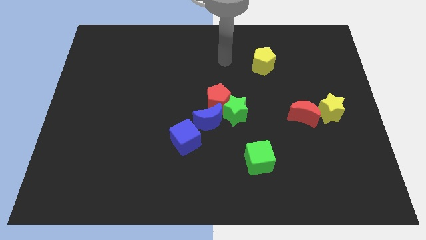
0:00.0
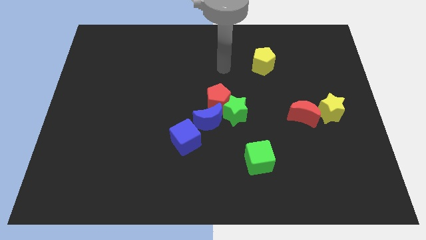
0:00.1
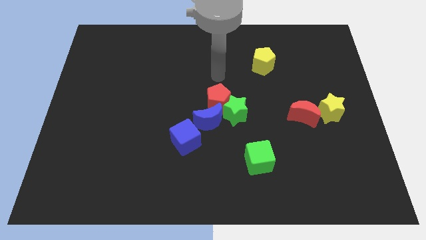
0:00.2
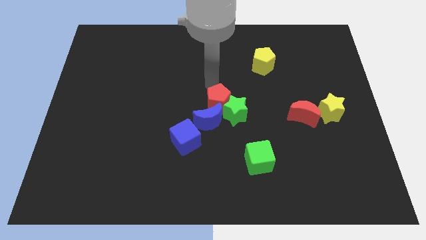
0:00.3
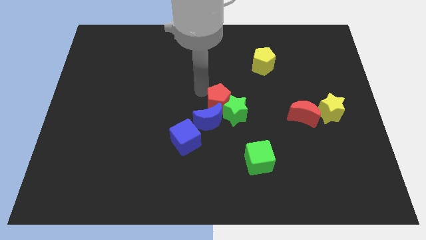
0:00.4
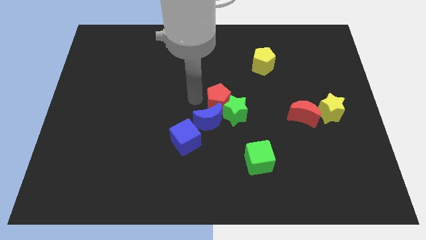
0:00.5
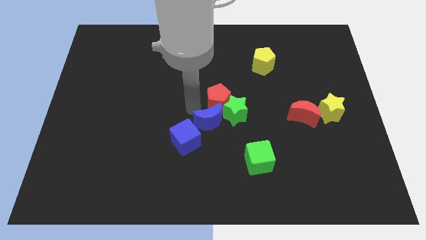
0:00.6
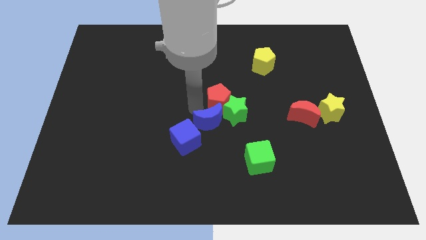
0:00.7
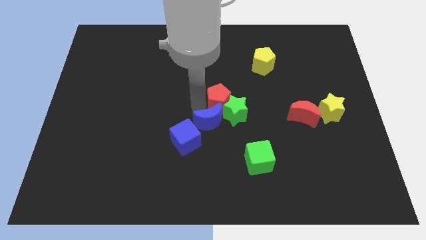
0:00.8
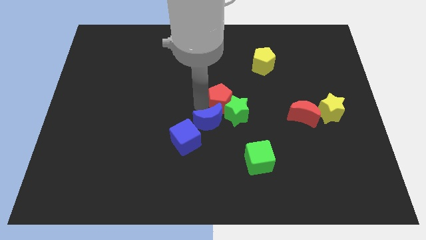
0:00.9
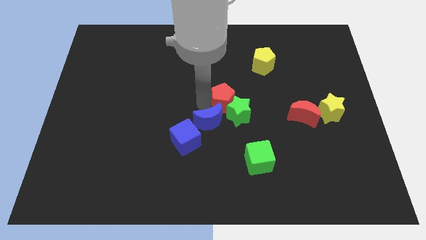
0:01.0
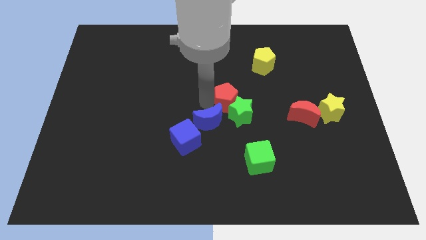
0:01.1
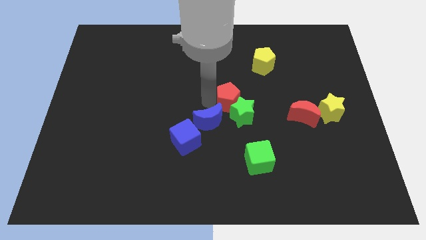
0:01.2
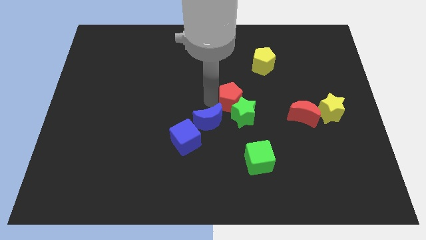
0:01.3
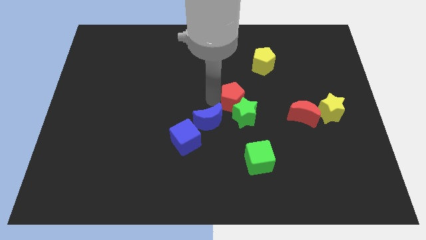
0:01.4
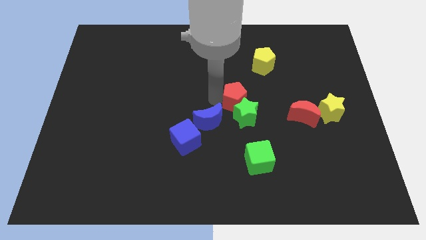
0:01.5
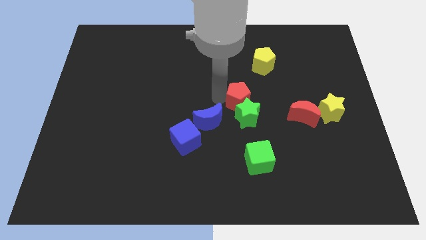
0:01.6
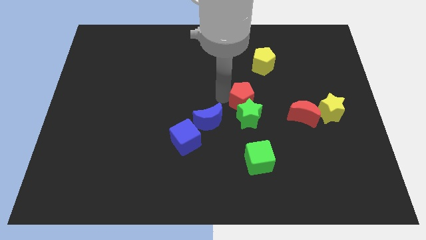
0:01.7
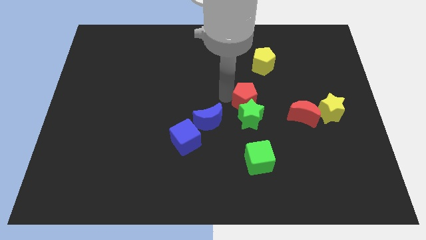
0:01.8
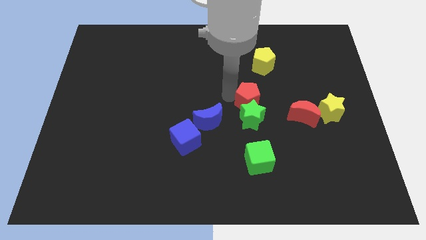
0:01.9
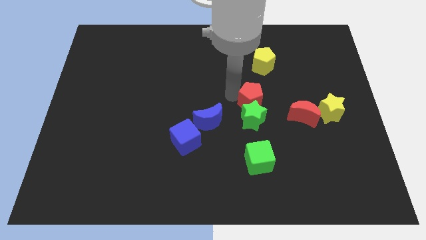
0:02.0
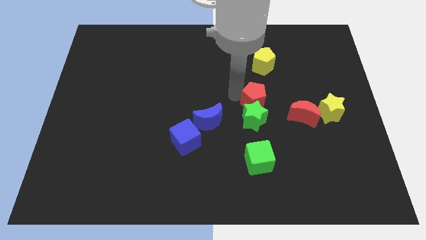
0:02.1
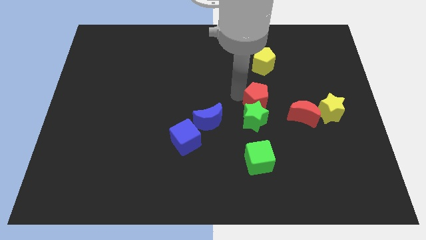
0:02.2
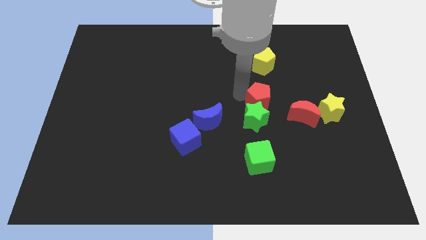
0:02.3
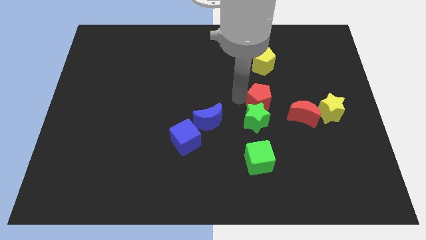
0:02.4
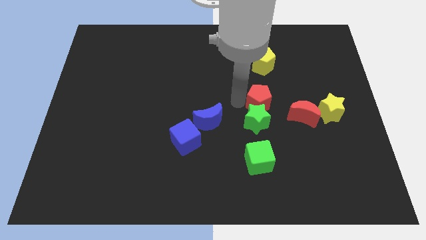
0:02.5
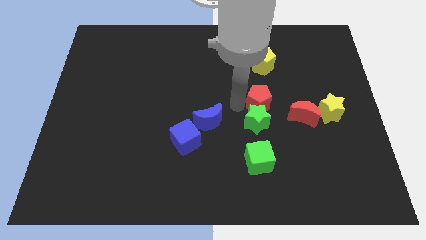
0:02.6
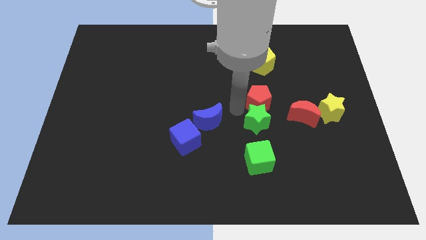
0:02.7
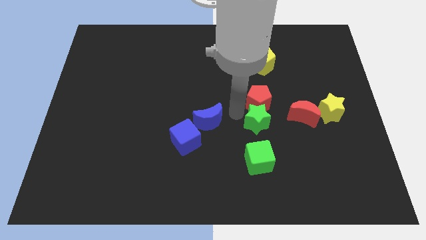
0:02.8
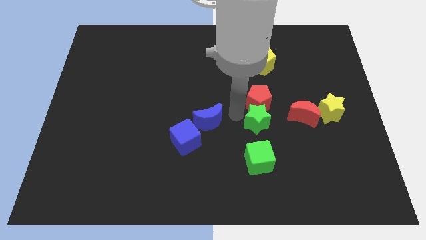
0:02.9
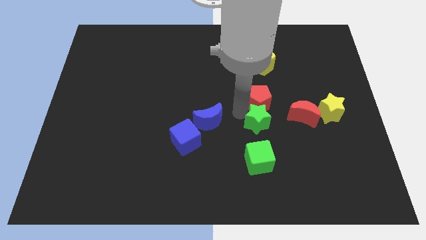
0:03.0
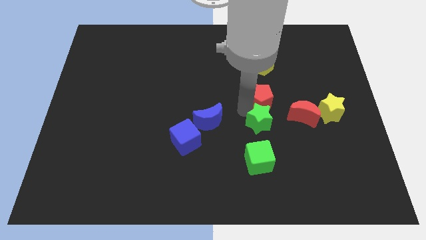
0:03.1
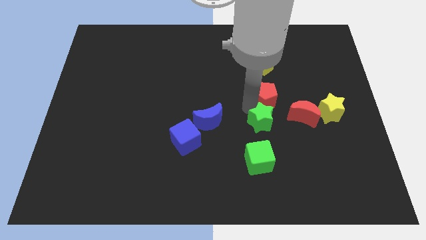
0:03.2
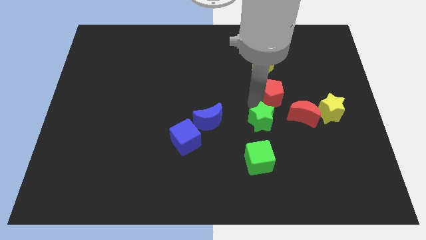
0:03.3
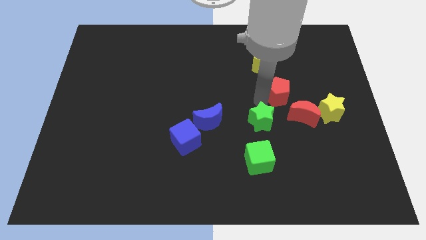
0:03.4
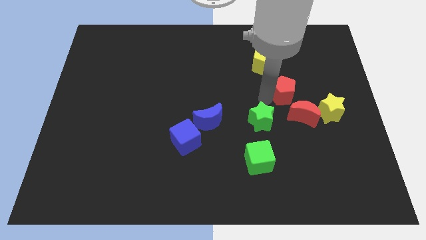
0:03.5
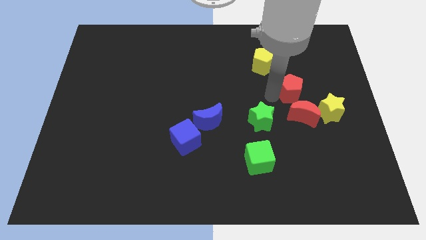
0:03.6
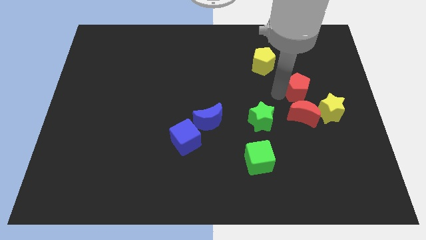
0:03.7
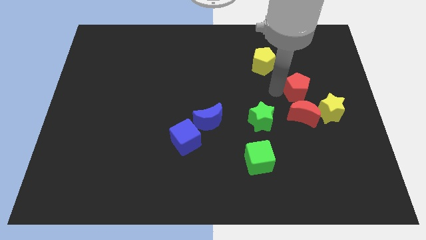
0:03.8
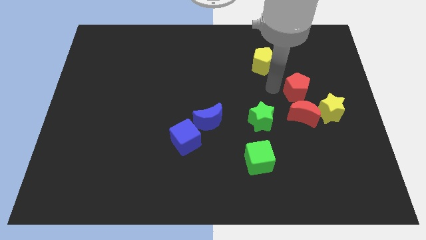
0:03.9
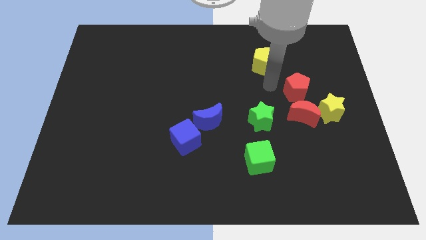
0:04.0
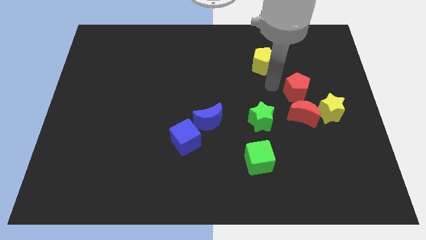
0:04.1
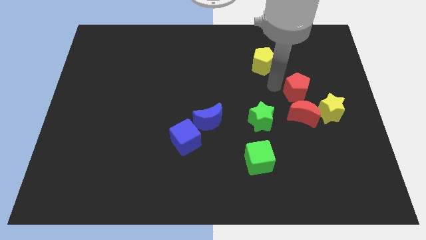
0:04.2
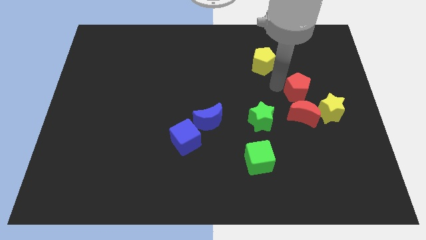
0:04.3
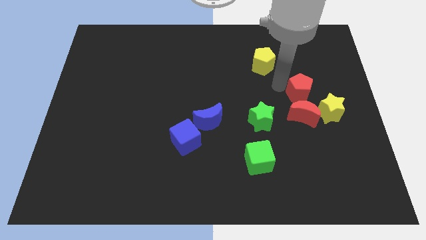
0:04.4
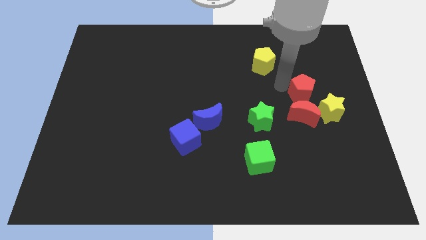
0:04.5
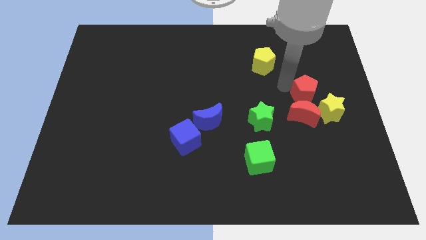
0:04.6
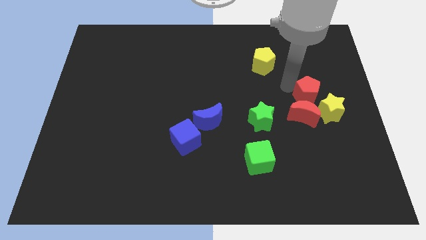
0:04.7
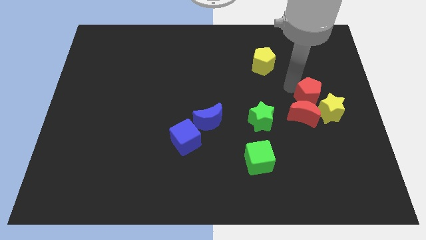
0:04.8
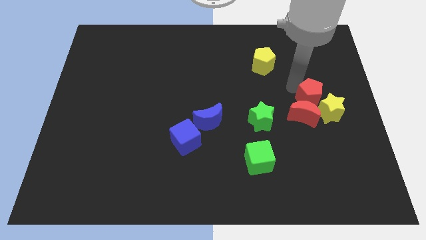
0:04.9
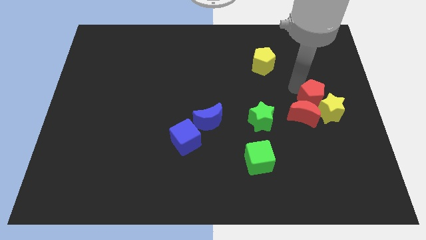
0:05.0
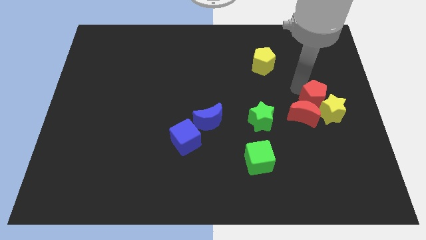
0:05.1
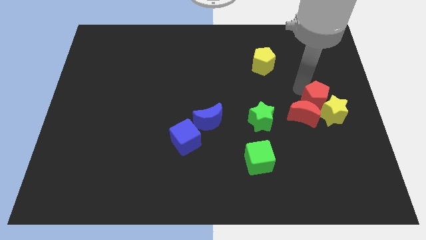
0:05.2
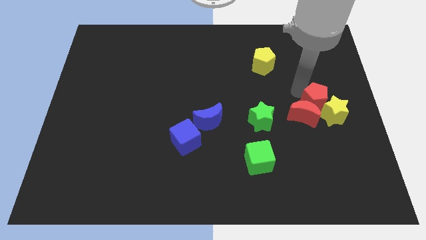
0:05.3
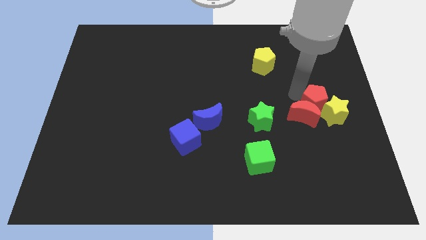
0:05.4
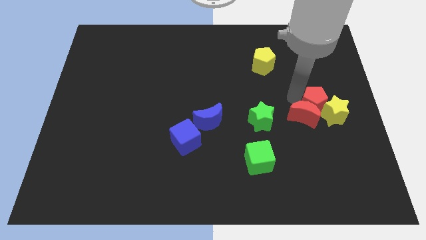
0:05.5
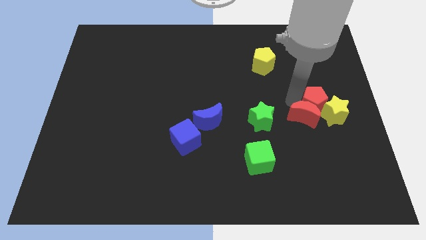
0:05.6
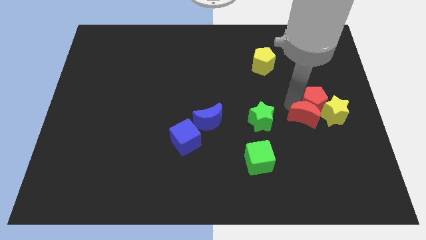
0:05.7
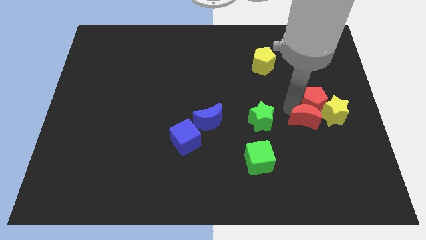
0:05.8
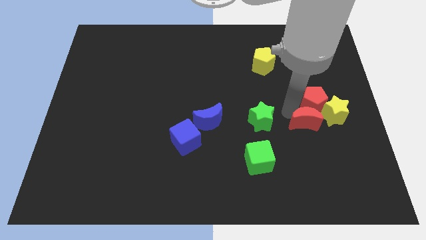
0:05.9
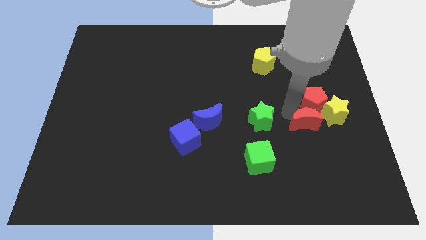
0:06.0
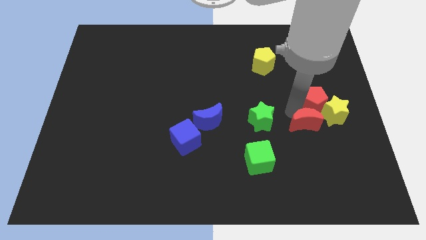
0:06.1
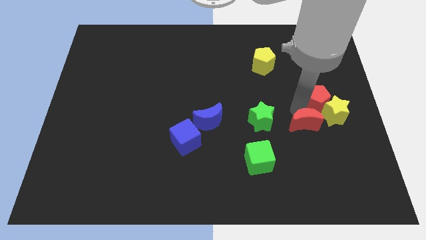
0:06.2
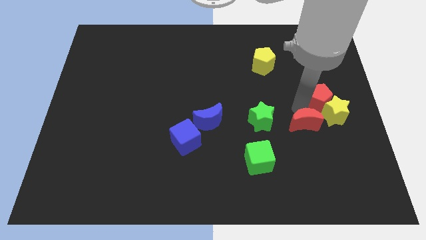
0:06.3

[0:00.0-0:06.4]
move the red pentagon to the right side of the board

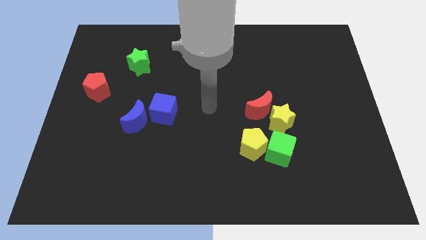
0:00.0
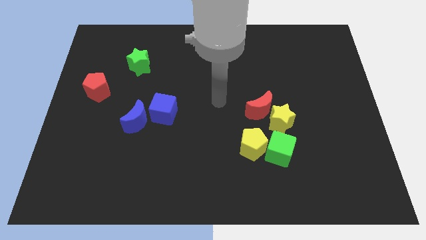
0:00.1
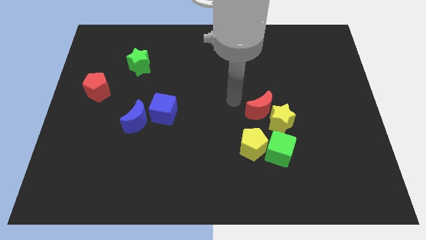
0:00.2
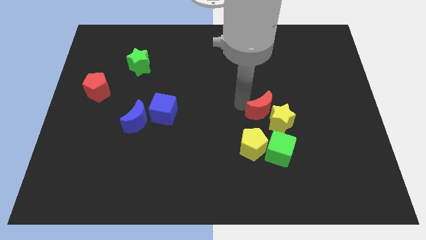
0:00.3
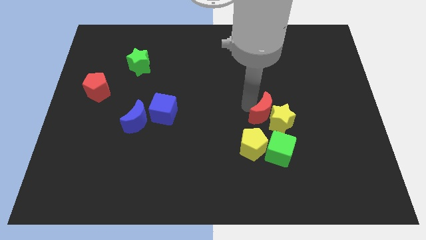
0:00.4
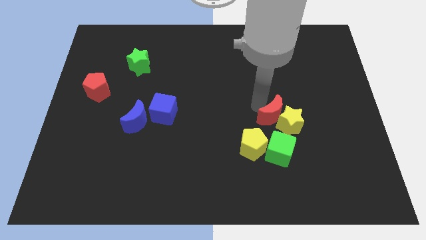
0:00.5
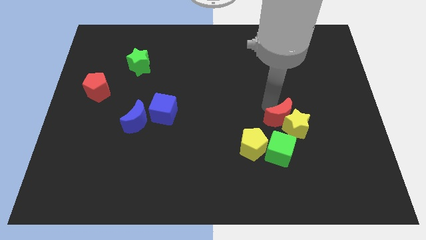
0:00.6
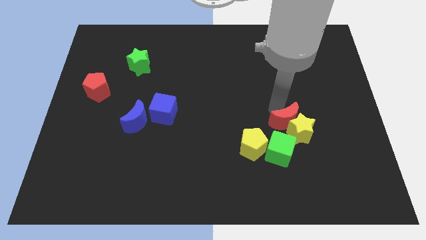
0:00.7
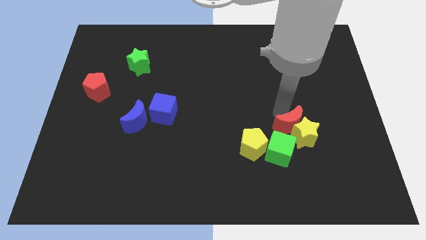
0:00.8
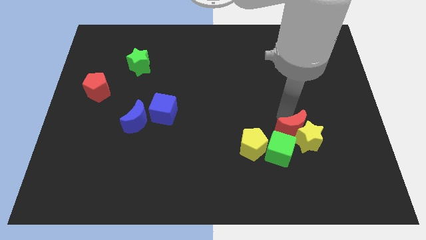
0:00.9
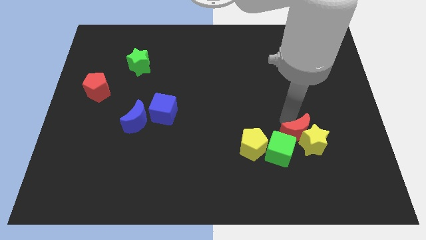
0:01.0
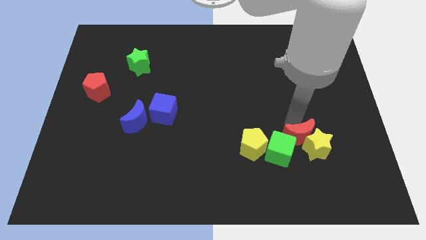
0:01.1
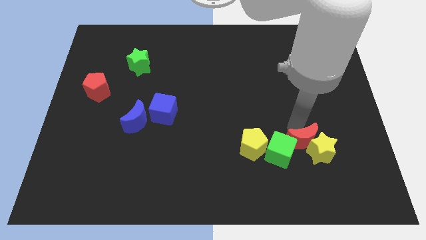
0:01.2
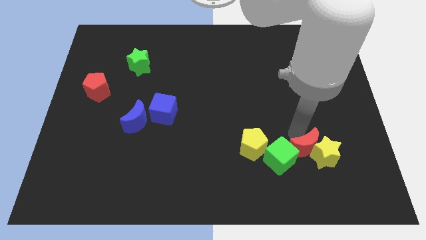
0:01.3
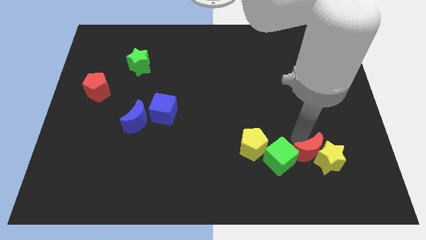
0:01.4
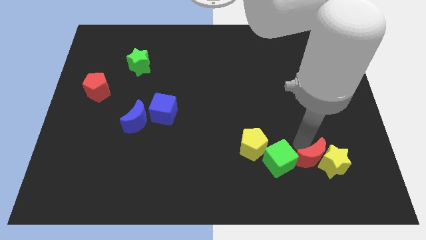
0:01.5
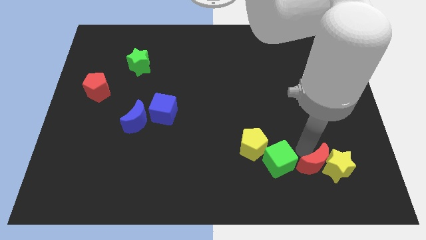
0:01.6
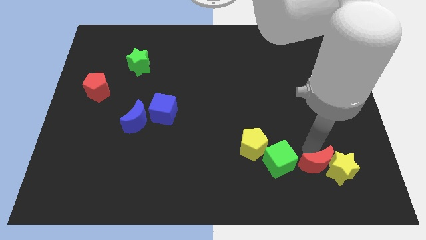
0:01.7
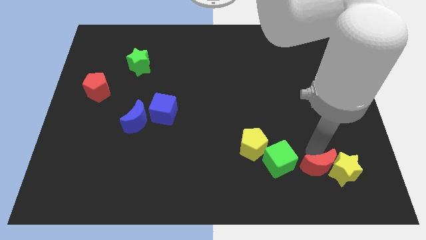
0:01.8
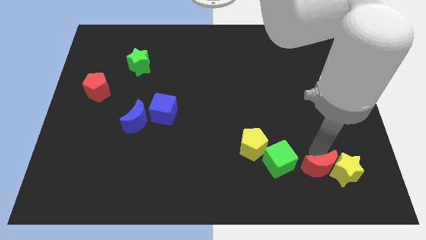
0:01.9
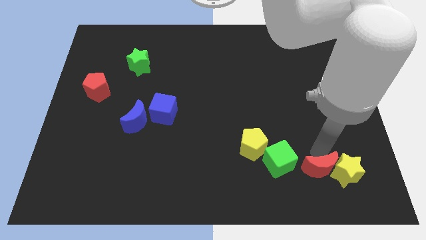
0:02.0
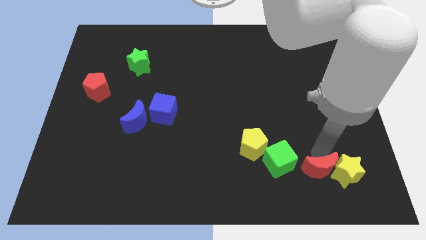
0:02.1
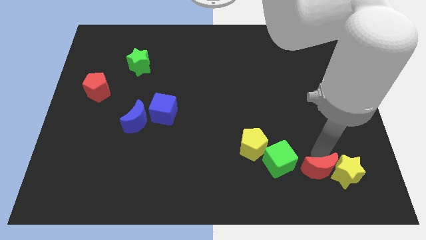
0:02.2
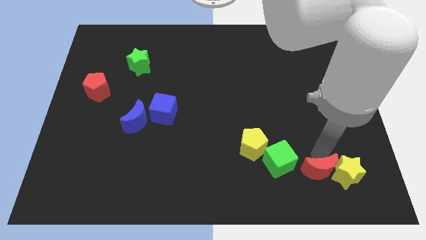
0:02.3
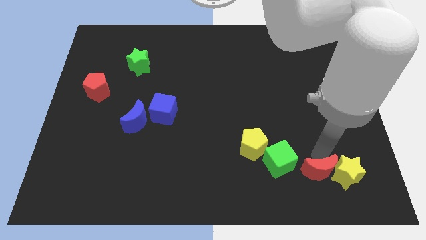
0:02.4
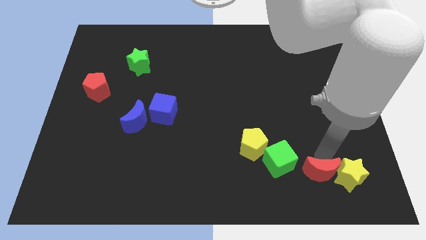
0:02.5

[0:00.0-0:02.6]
slide the yellow star to the bottom right
